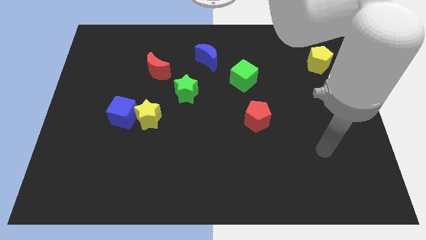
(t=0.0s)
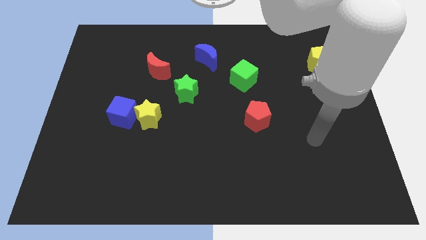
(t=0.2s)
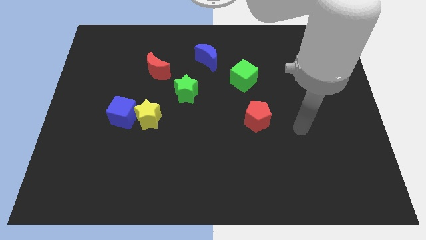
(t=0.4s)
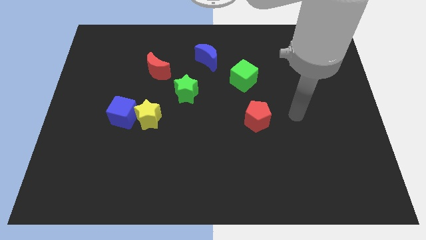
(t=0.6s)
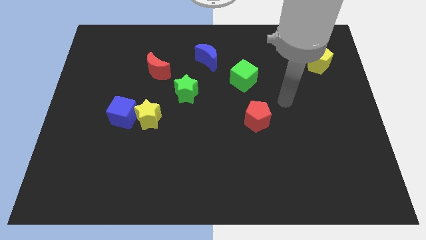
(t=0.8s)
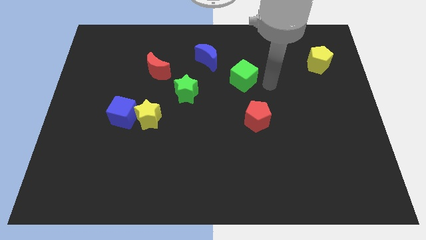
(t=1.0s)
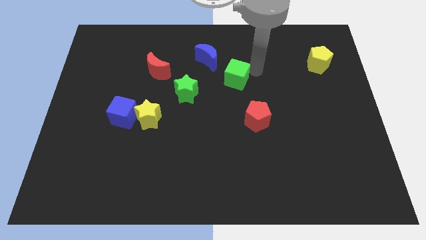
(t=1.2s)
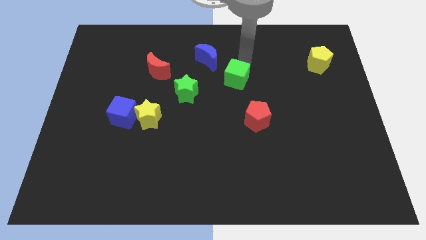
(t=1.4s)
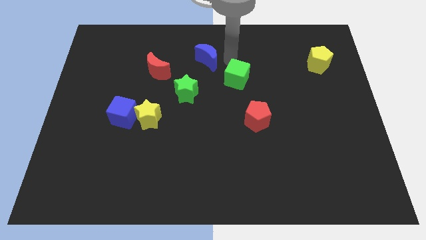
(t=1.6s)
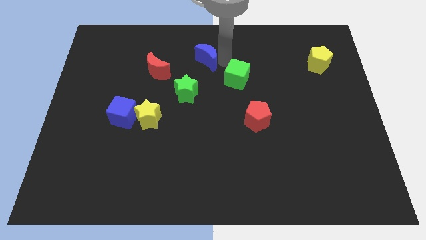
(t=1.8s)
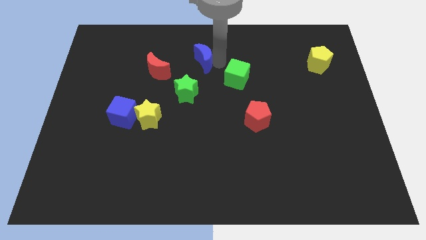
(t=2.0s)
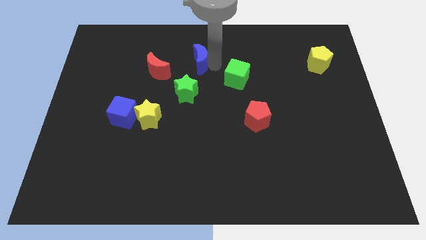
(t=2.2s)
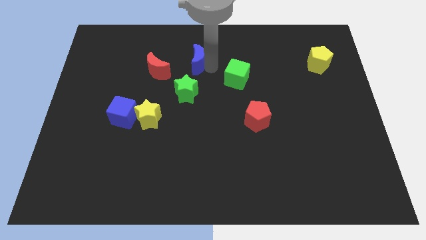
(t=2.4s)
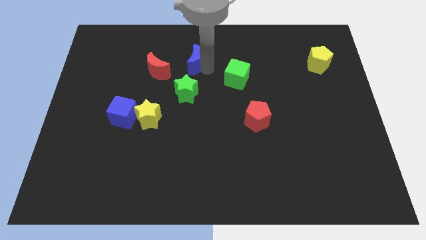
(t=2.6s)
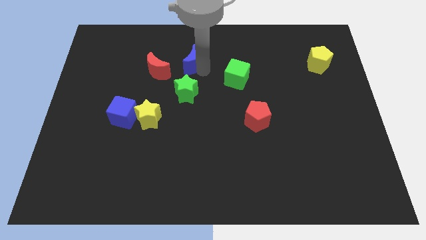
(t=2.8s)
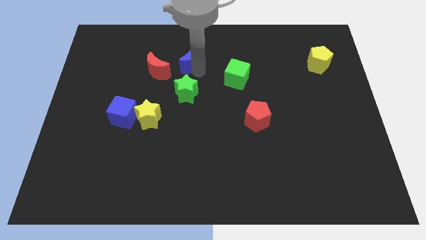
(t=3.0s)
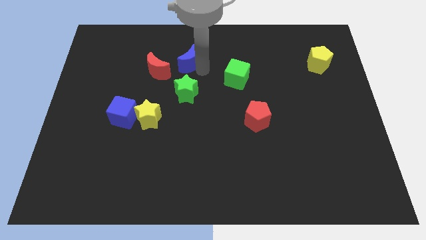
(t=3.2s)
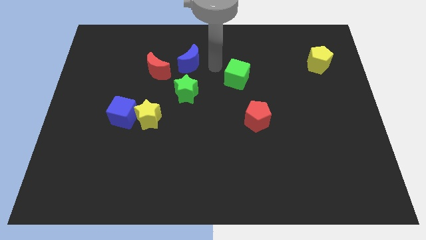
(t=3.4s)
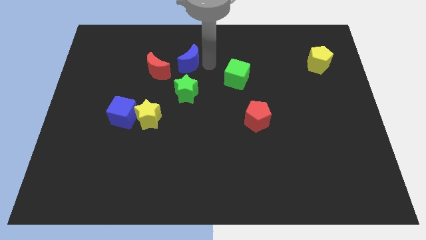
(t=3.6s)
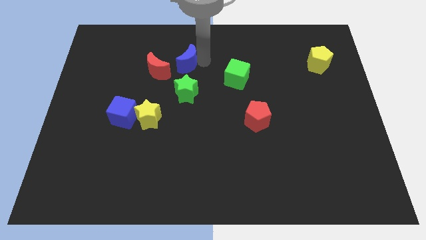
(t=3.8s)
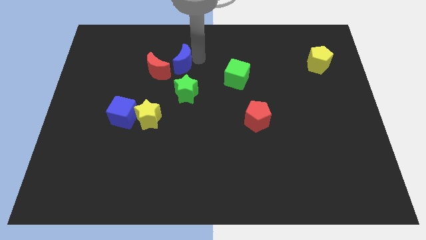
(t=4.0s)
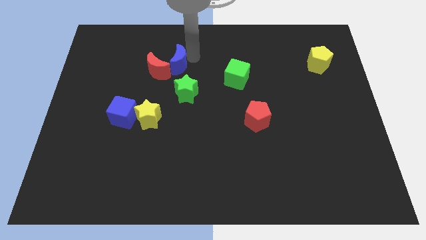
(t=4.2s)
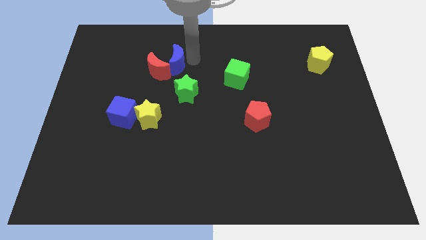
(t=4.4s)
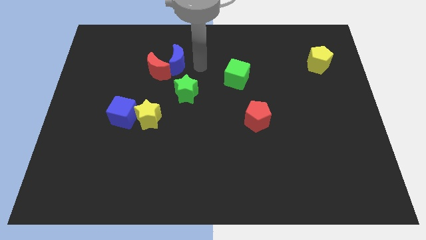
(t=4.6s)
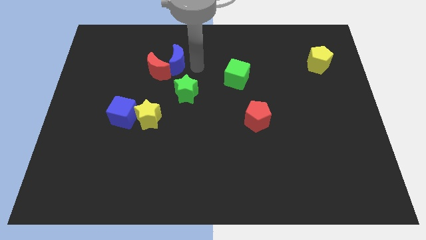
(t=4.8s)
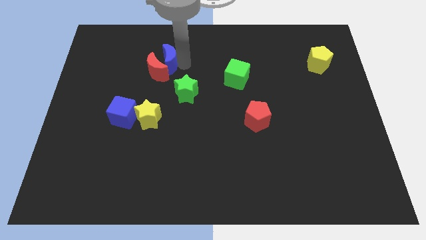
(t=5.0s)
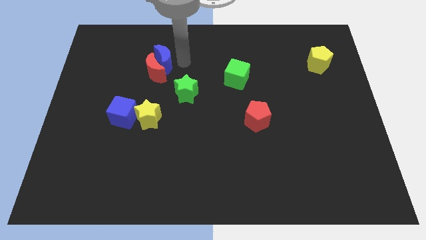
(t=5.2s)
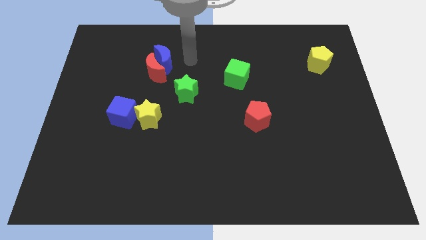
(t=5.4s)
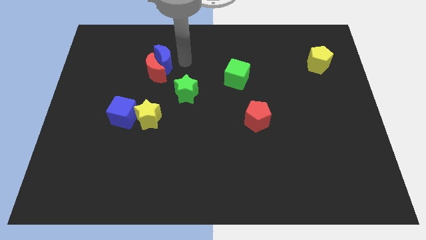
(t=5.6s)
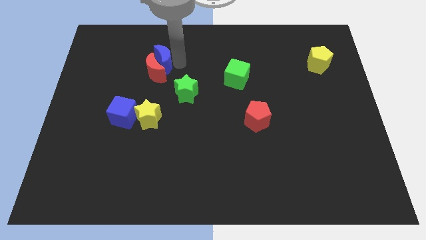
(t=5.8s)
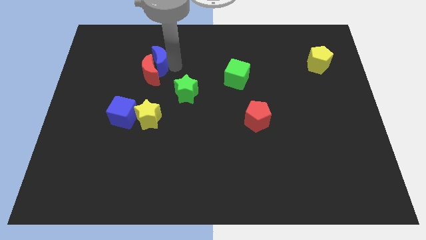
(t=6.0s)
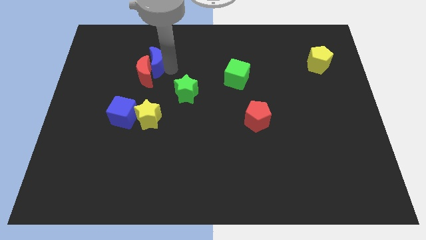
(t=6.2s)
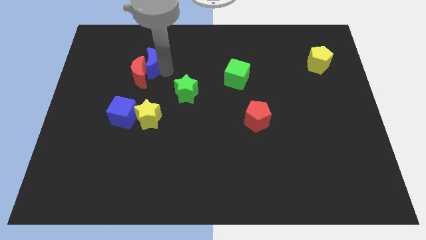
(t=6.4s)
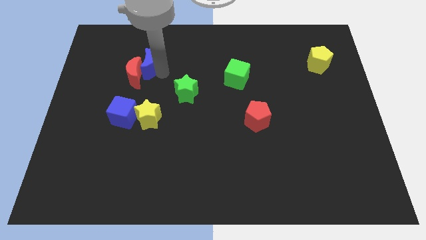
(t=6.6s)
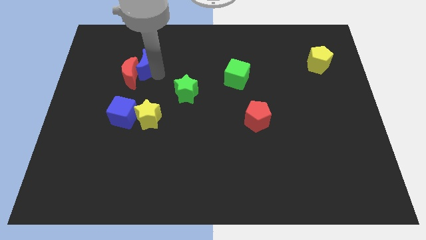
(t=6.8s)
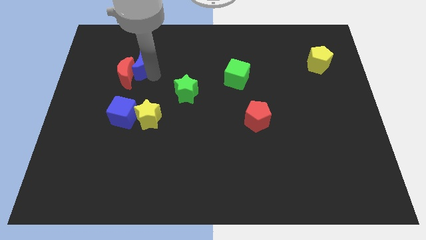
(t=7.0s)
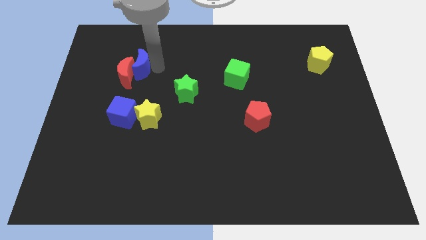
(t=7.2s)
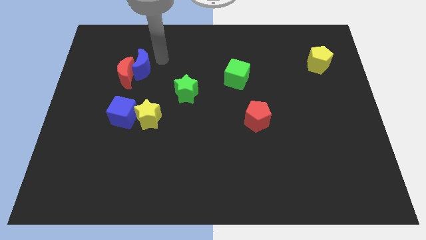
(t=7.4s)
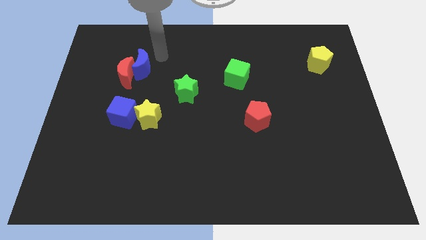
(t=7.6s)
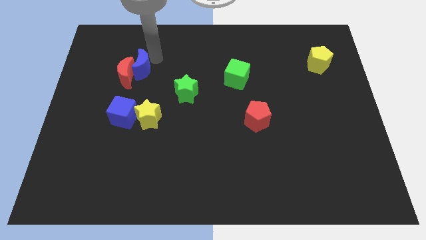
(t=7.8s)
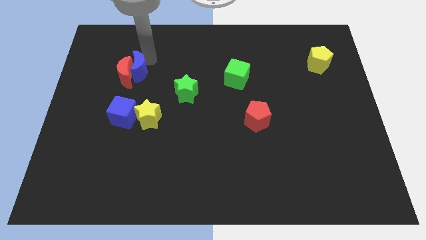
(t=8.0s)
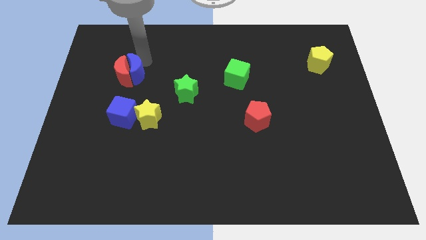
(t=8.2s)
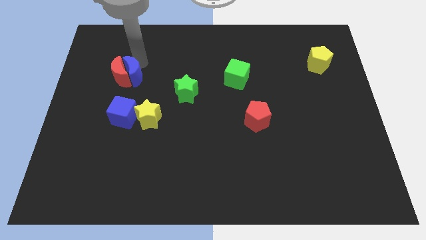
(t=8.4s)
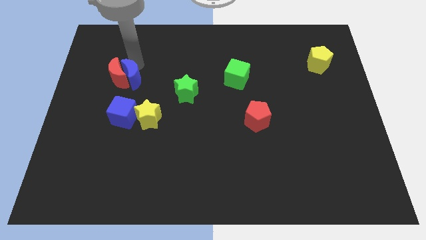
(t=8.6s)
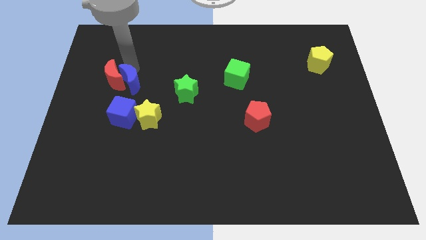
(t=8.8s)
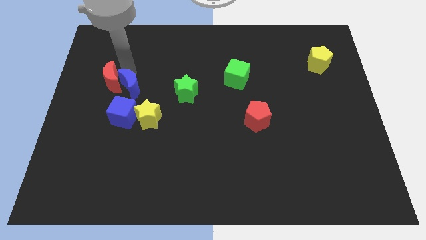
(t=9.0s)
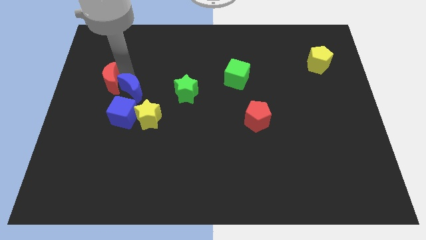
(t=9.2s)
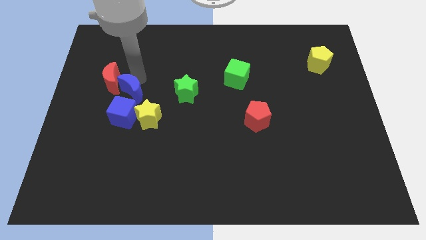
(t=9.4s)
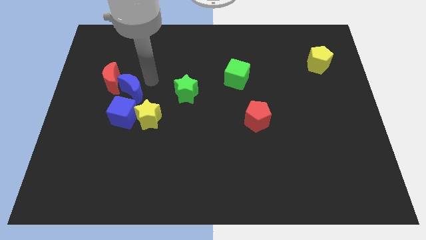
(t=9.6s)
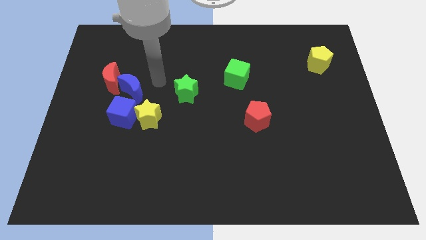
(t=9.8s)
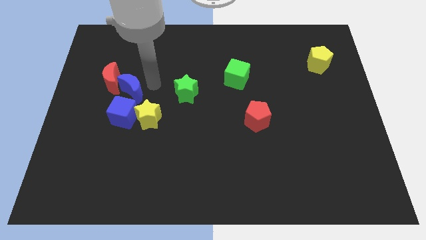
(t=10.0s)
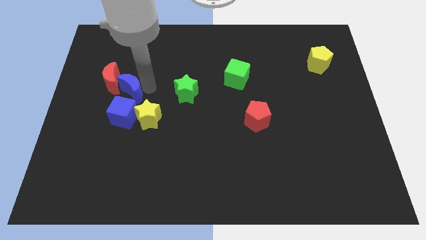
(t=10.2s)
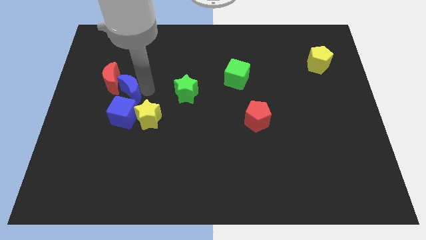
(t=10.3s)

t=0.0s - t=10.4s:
slide the blue moon downwards and left

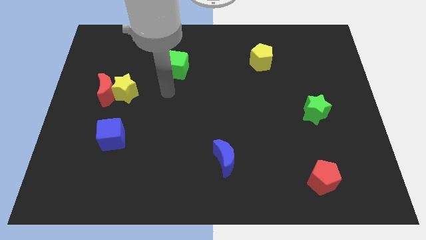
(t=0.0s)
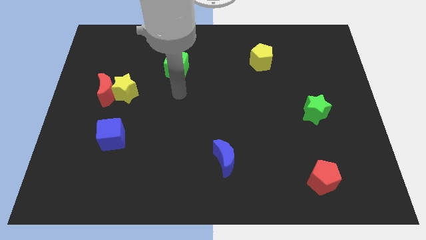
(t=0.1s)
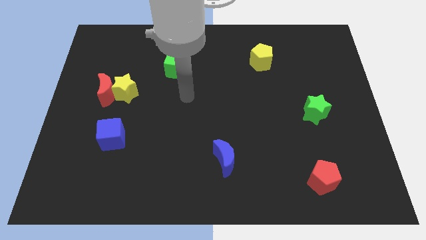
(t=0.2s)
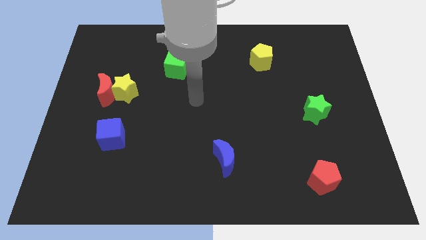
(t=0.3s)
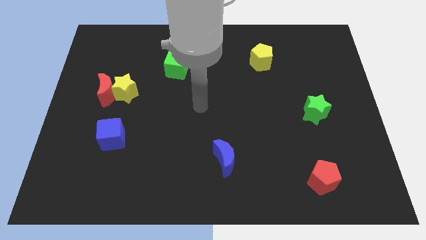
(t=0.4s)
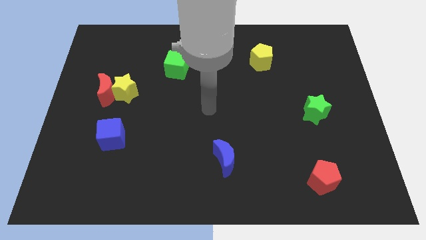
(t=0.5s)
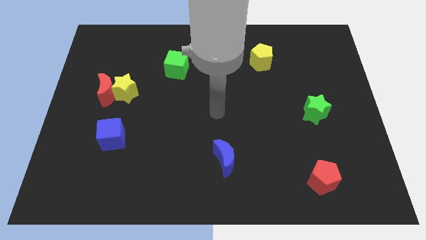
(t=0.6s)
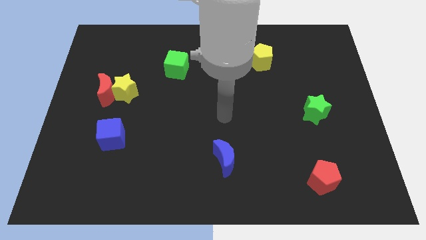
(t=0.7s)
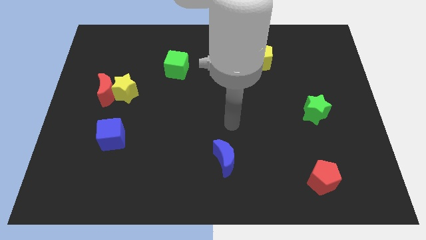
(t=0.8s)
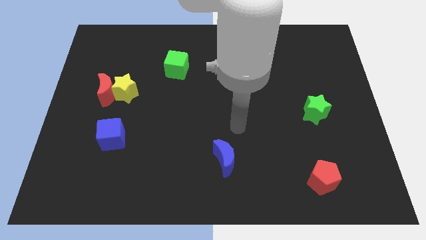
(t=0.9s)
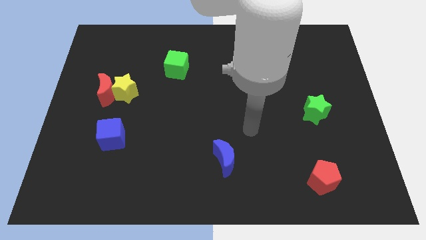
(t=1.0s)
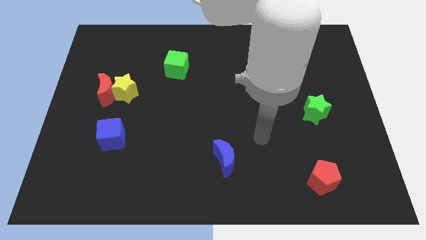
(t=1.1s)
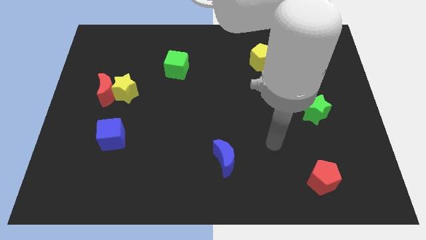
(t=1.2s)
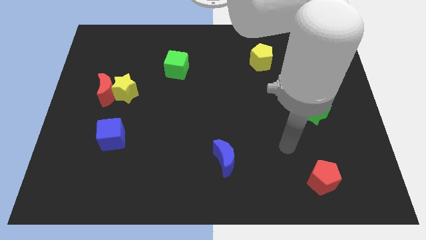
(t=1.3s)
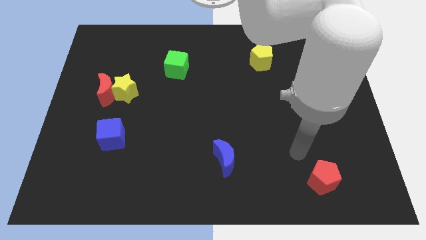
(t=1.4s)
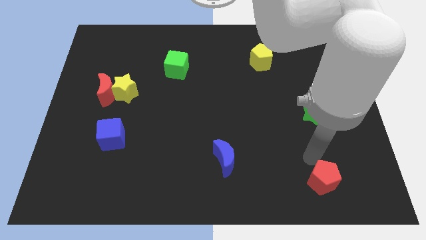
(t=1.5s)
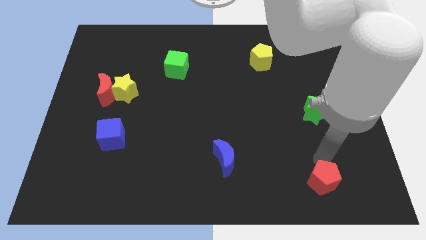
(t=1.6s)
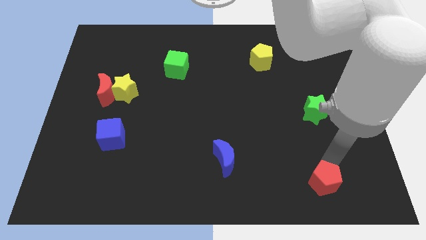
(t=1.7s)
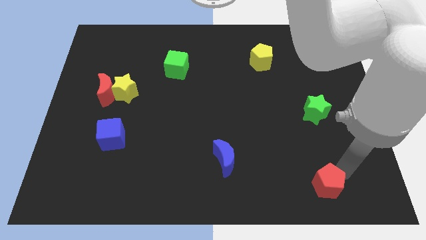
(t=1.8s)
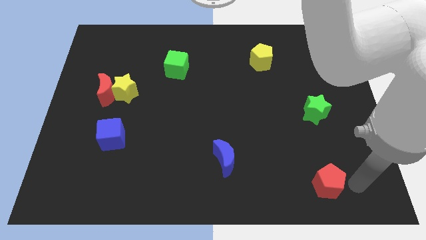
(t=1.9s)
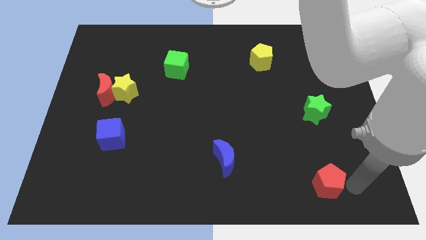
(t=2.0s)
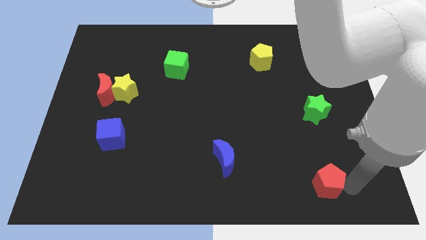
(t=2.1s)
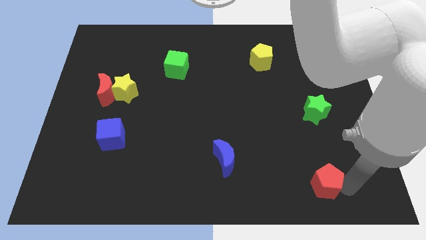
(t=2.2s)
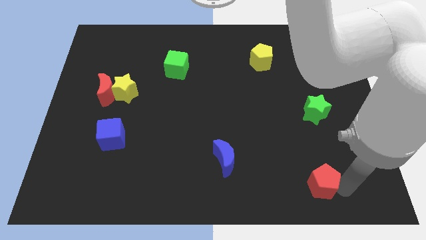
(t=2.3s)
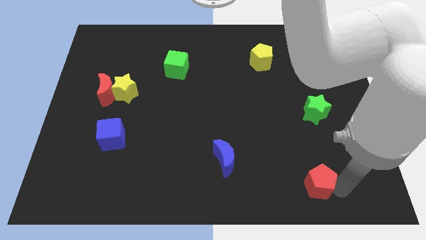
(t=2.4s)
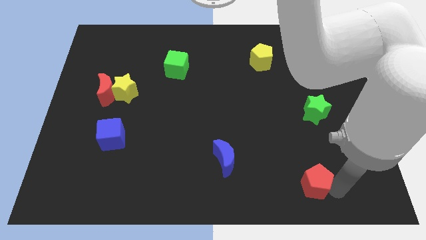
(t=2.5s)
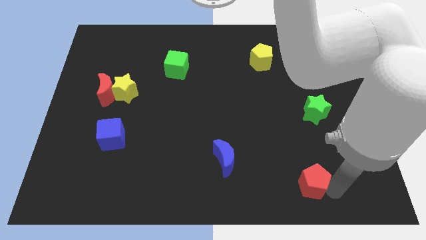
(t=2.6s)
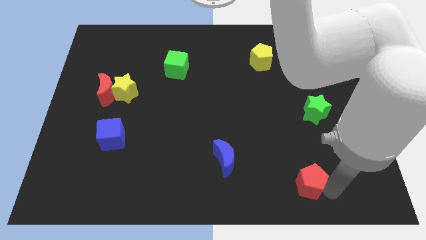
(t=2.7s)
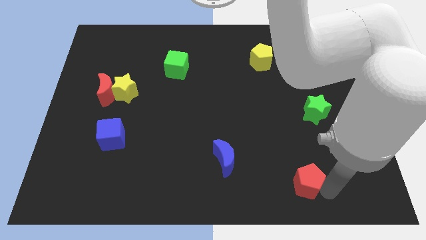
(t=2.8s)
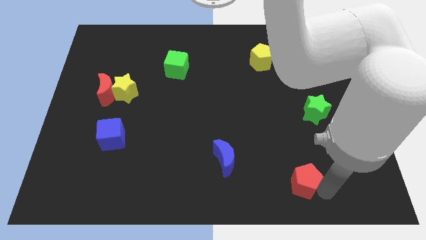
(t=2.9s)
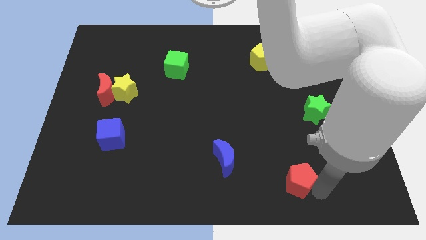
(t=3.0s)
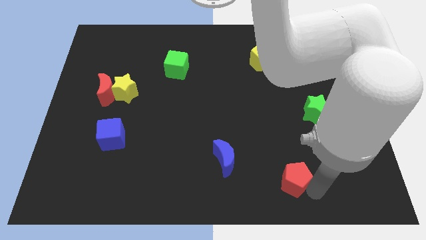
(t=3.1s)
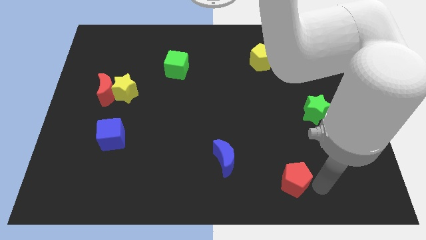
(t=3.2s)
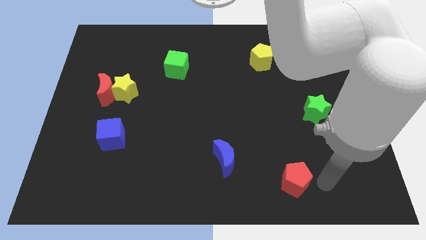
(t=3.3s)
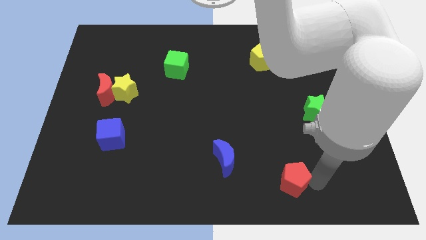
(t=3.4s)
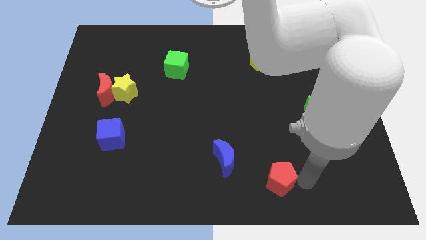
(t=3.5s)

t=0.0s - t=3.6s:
slide the red pentagon a little to the left
